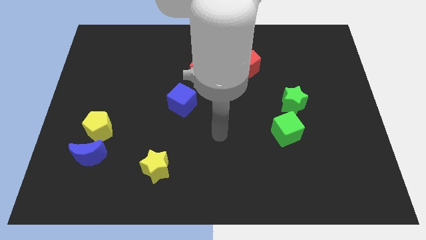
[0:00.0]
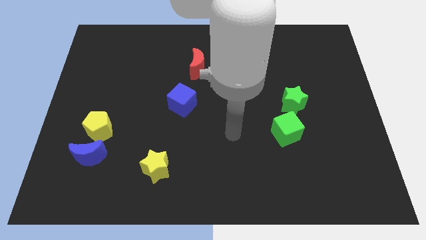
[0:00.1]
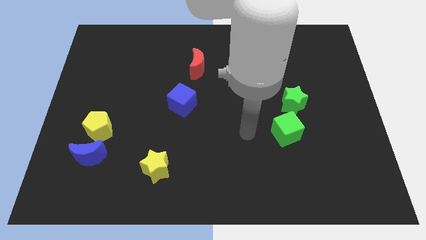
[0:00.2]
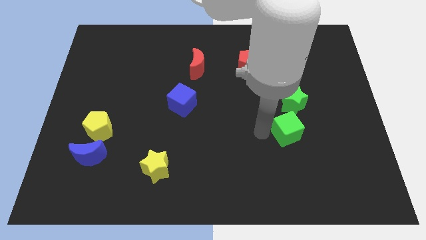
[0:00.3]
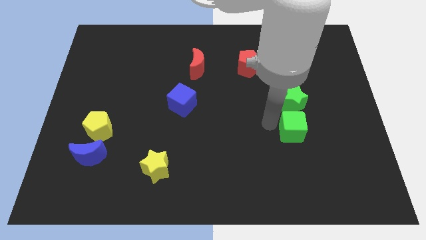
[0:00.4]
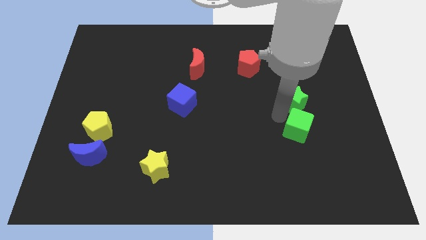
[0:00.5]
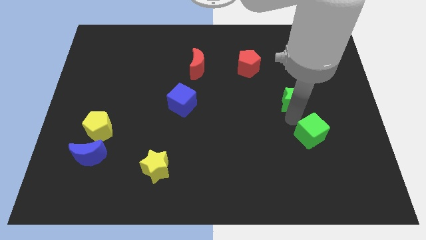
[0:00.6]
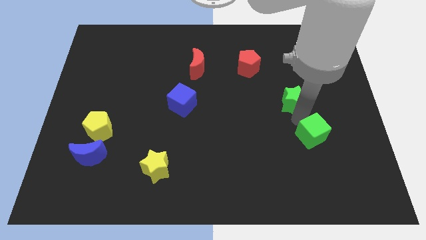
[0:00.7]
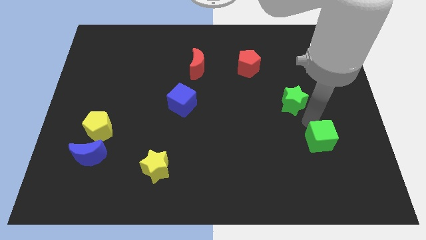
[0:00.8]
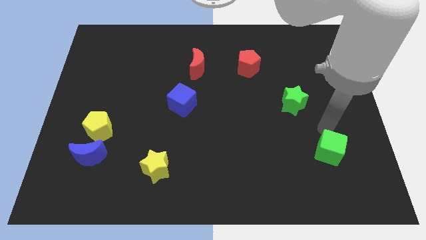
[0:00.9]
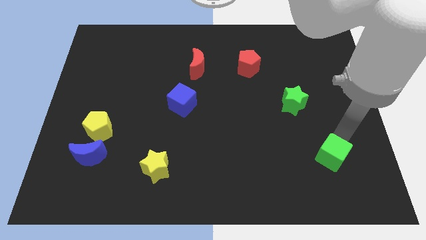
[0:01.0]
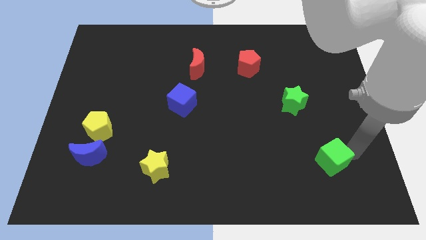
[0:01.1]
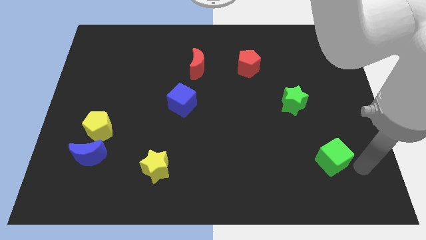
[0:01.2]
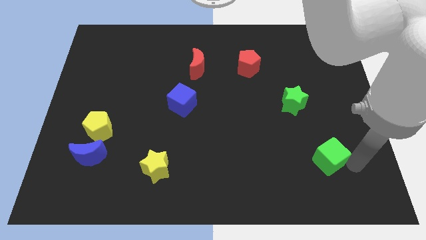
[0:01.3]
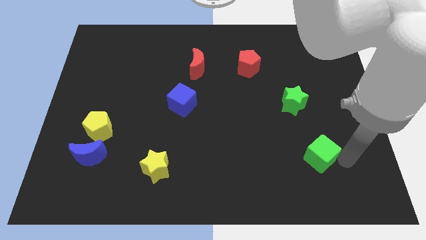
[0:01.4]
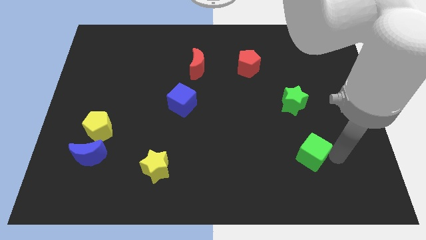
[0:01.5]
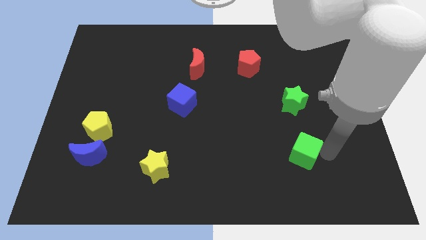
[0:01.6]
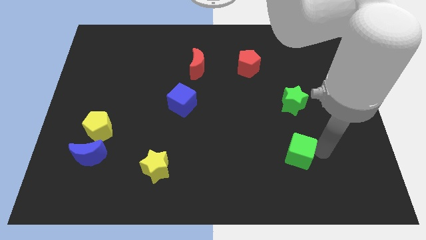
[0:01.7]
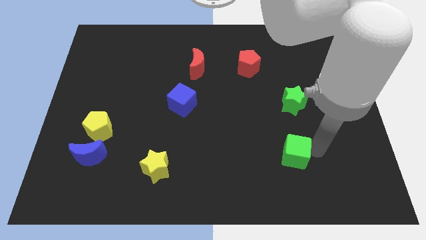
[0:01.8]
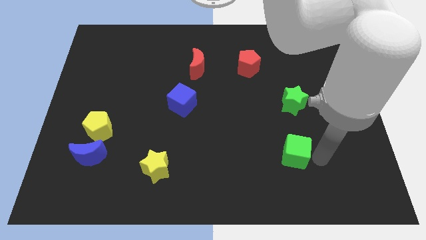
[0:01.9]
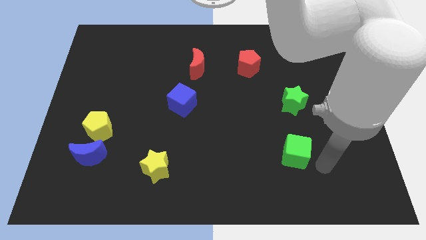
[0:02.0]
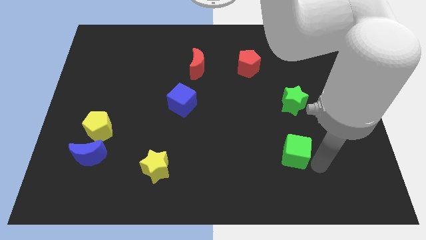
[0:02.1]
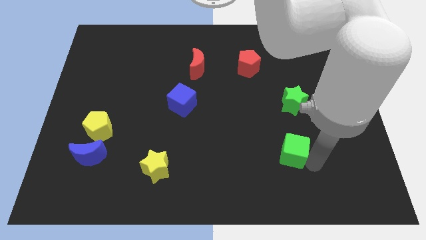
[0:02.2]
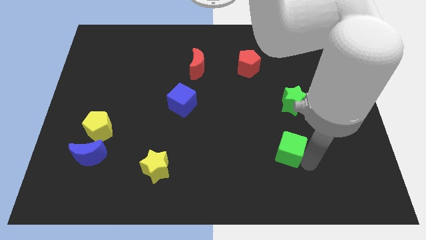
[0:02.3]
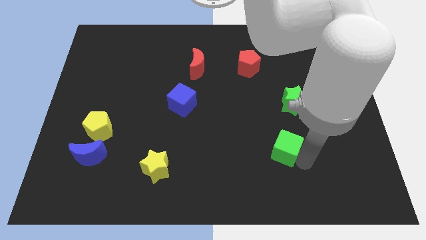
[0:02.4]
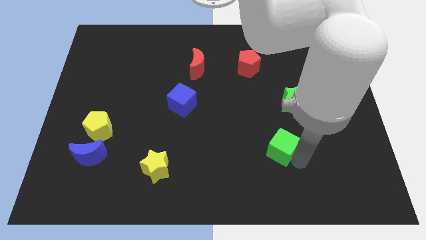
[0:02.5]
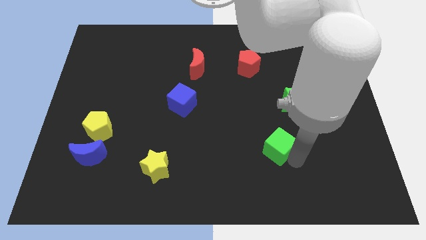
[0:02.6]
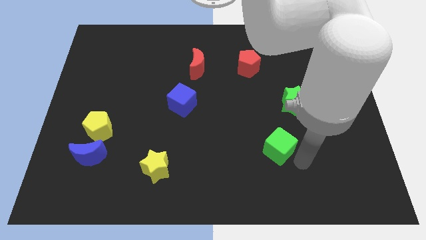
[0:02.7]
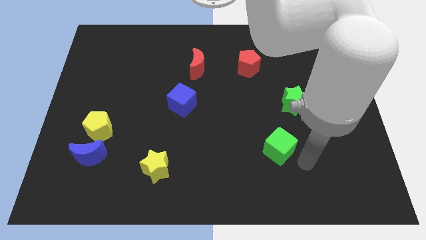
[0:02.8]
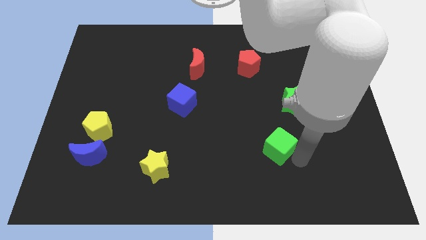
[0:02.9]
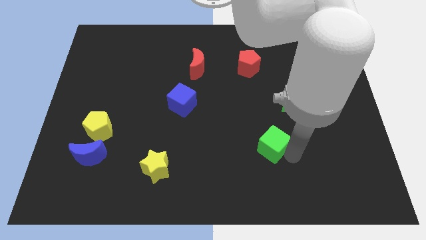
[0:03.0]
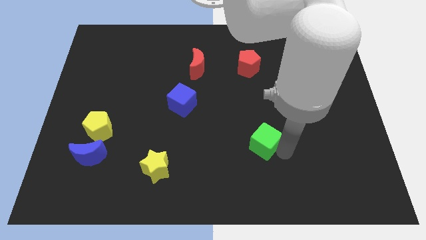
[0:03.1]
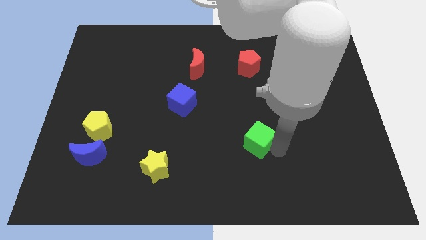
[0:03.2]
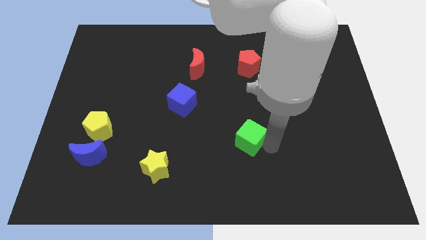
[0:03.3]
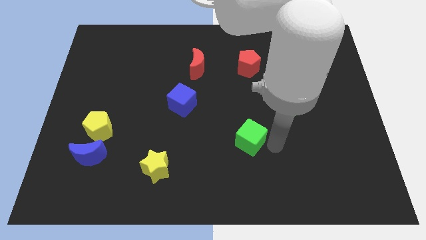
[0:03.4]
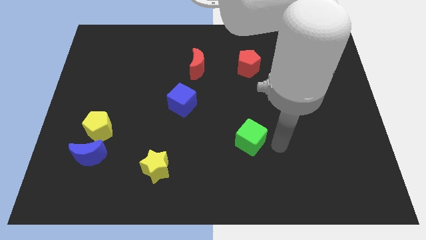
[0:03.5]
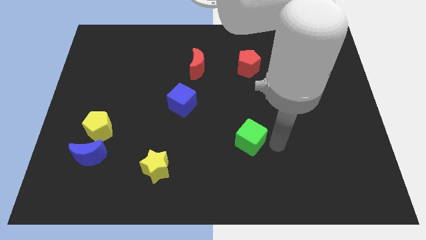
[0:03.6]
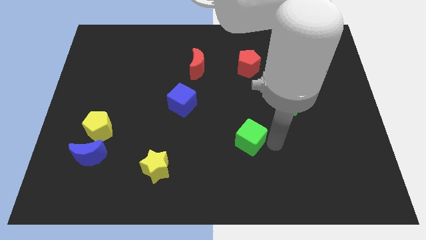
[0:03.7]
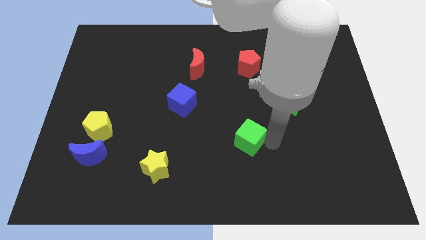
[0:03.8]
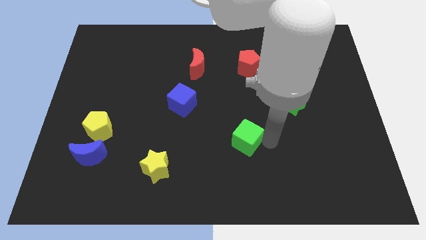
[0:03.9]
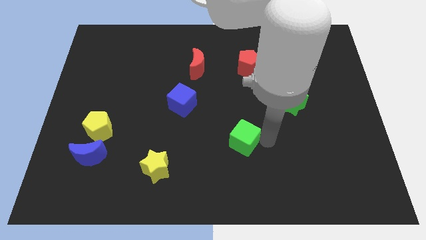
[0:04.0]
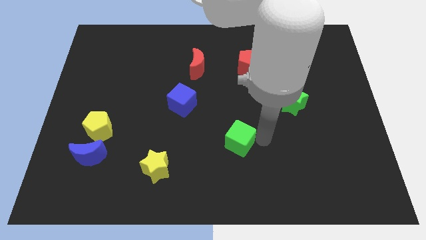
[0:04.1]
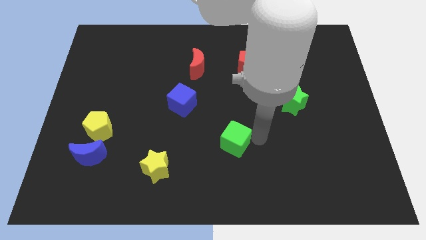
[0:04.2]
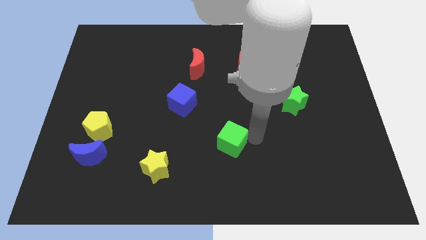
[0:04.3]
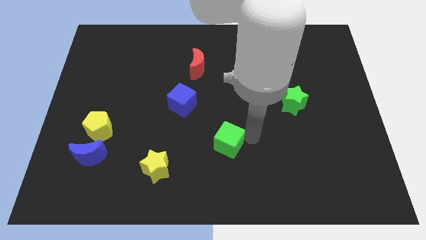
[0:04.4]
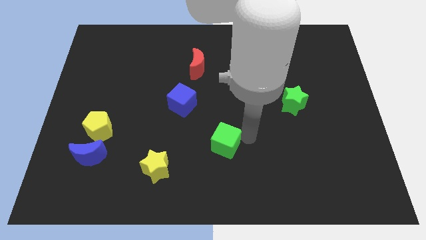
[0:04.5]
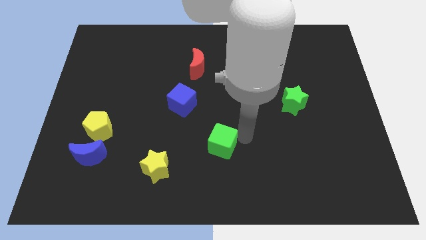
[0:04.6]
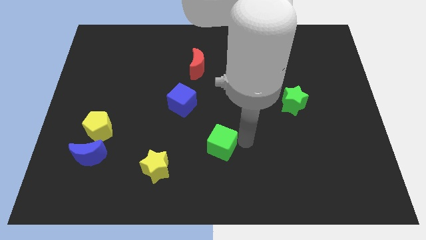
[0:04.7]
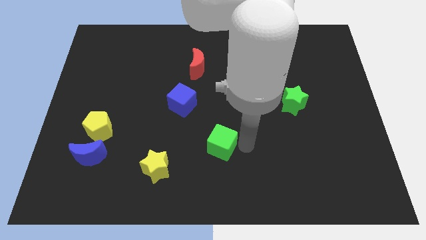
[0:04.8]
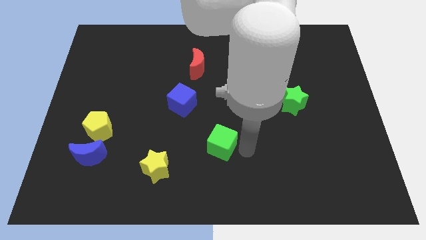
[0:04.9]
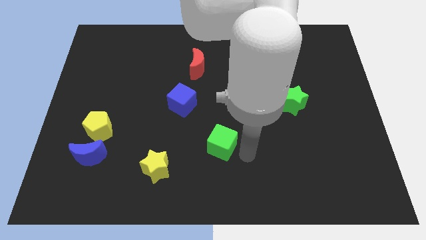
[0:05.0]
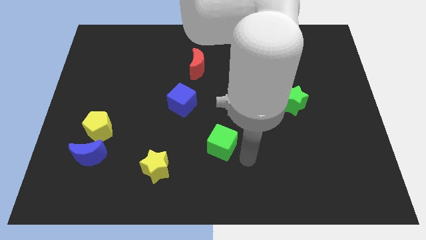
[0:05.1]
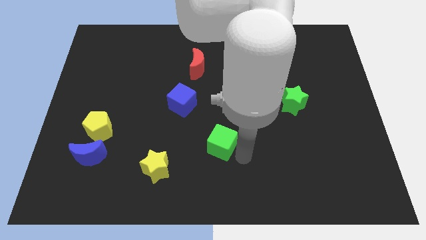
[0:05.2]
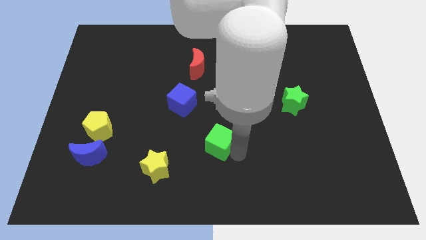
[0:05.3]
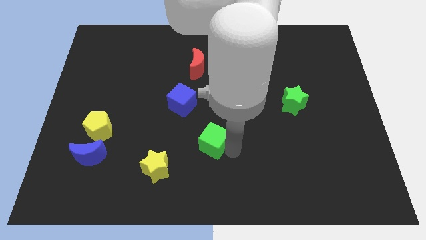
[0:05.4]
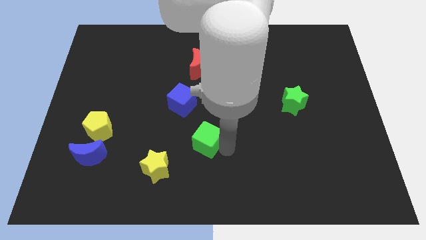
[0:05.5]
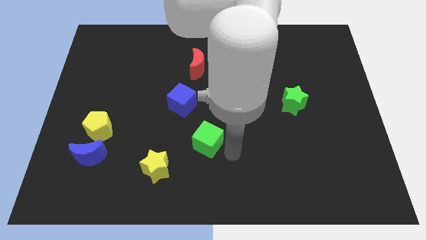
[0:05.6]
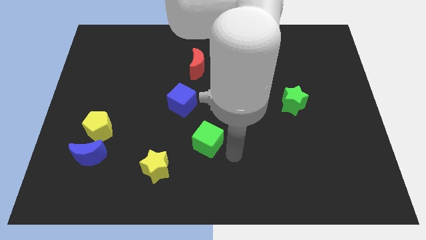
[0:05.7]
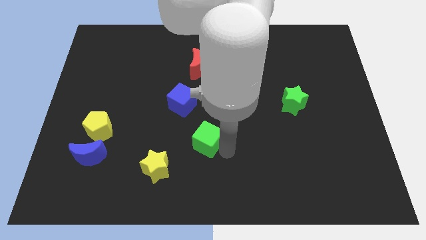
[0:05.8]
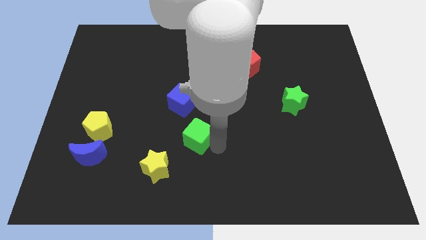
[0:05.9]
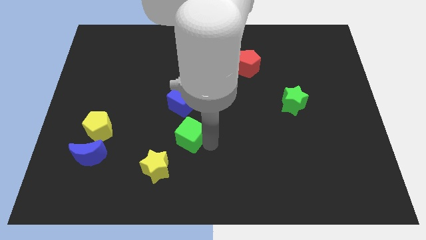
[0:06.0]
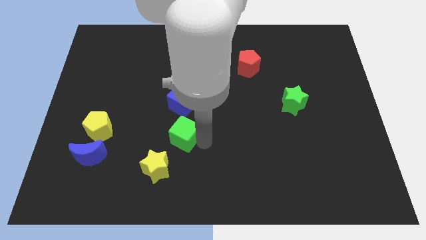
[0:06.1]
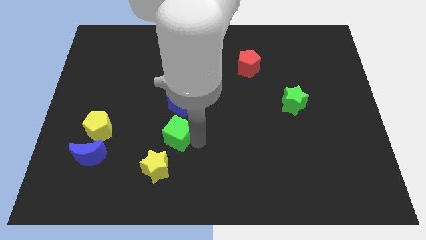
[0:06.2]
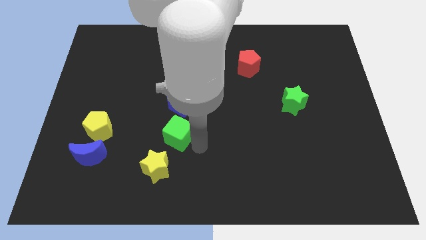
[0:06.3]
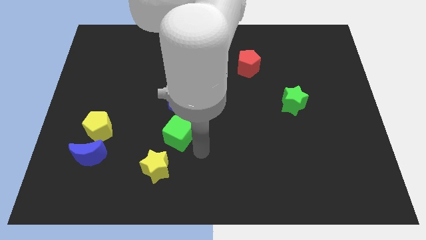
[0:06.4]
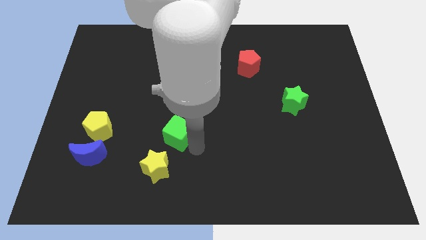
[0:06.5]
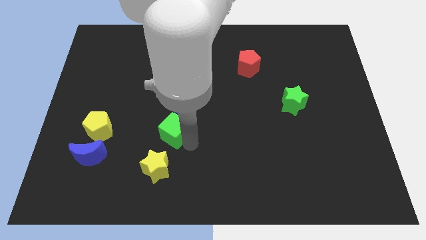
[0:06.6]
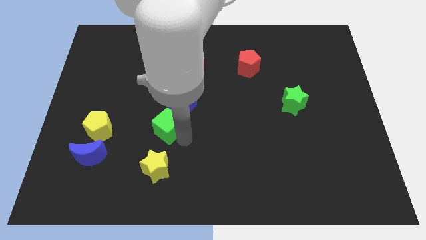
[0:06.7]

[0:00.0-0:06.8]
slide the green cube diagonally down and to the left of the blue cube

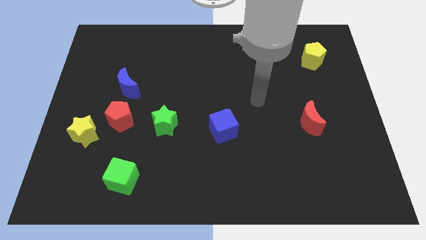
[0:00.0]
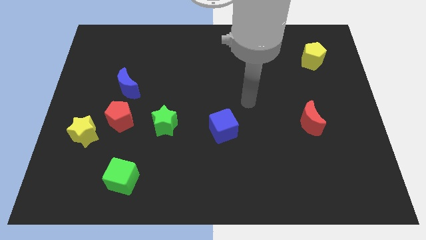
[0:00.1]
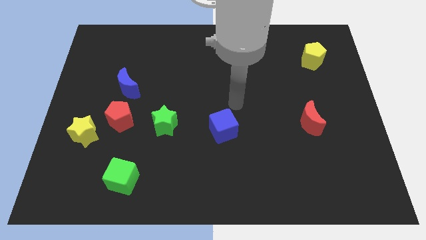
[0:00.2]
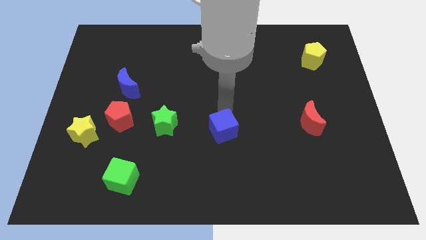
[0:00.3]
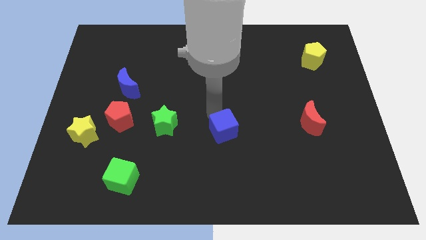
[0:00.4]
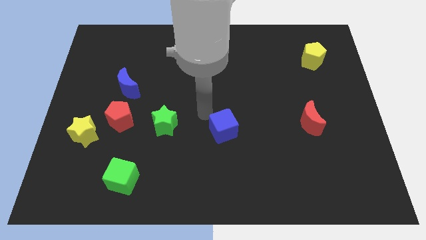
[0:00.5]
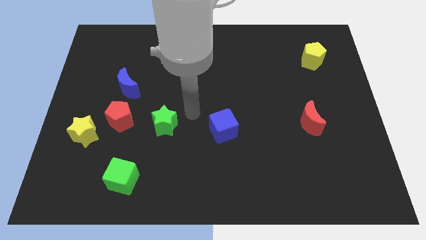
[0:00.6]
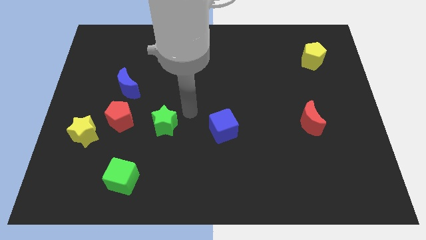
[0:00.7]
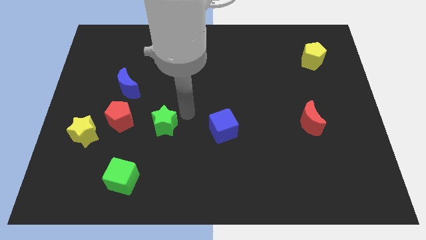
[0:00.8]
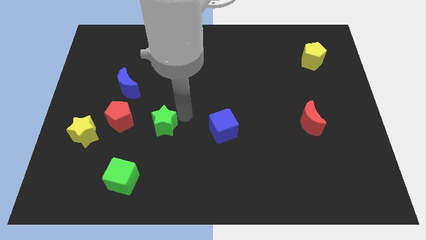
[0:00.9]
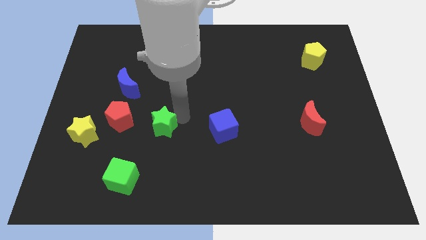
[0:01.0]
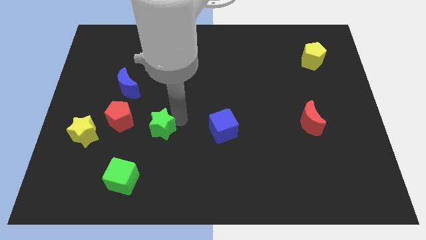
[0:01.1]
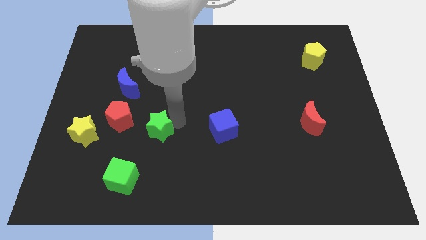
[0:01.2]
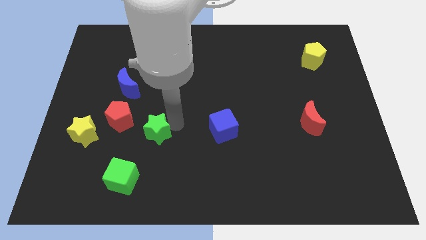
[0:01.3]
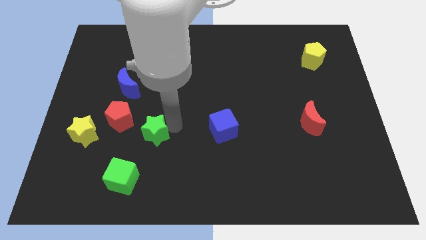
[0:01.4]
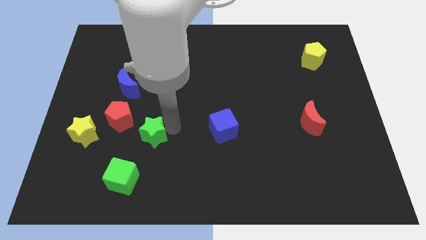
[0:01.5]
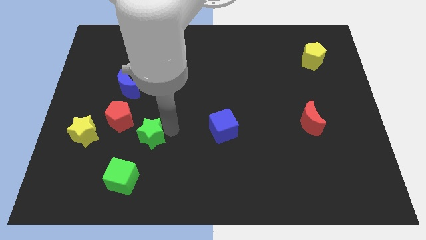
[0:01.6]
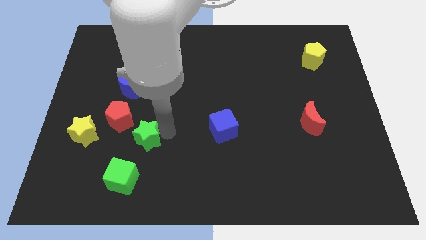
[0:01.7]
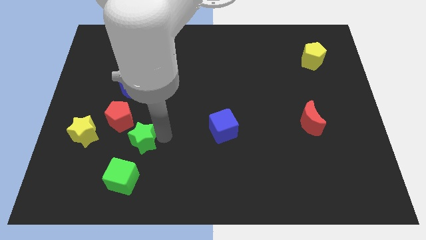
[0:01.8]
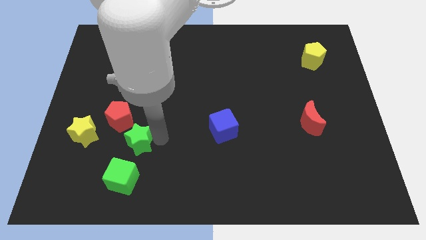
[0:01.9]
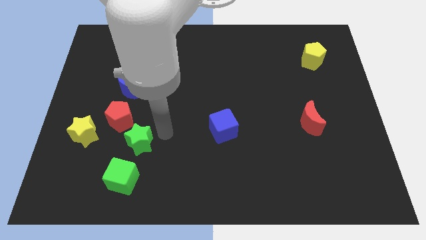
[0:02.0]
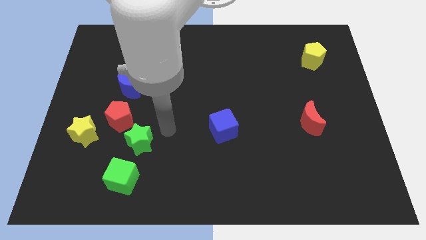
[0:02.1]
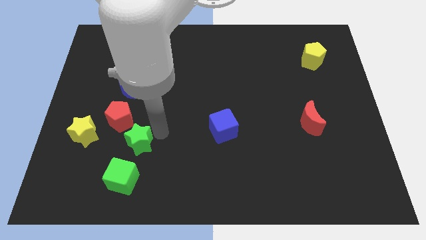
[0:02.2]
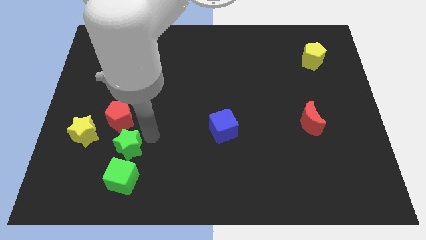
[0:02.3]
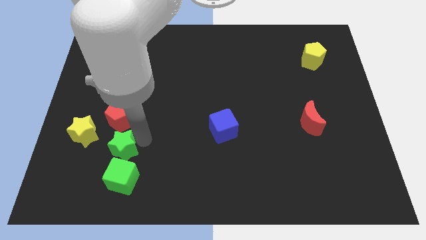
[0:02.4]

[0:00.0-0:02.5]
move the green star to the top left side of the green cube
